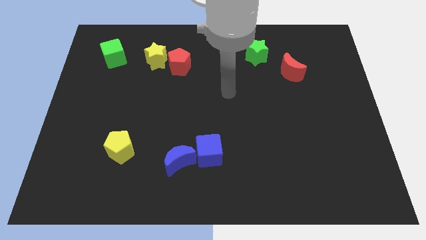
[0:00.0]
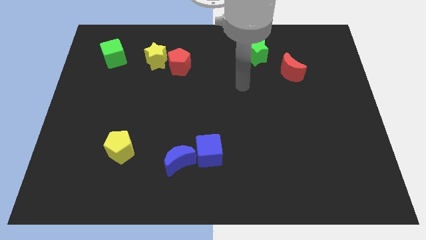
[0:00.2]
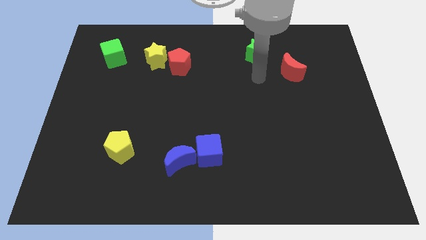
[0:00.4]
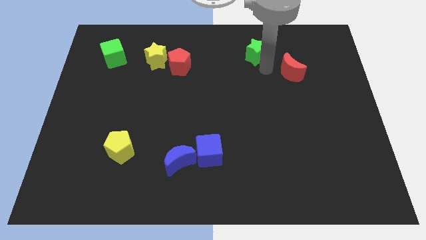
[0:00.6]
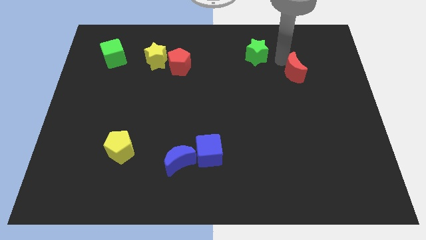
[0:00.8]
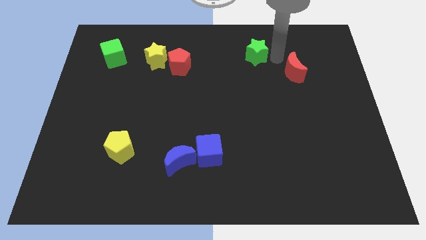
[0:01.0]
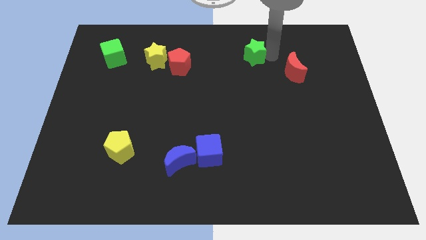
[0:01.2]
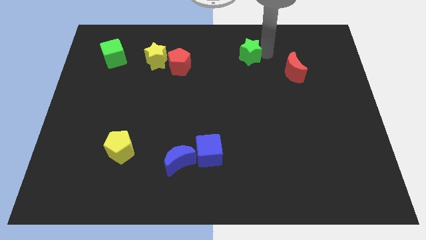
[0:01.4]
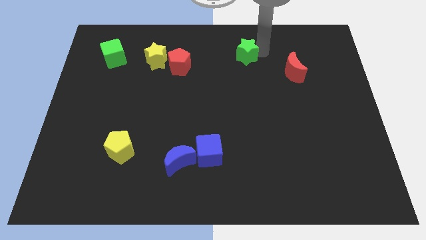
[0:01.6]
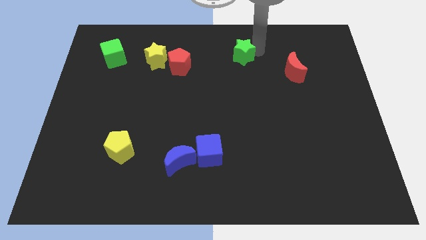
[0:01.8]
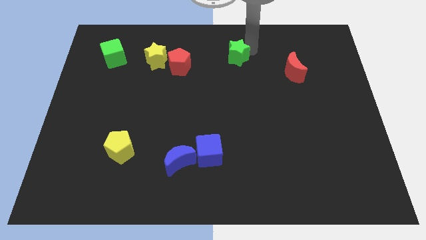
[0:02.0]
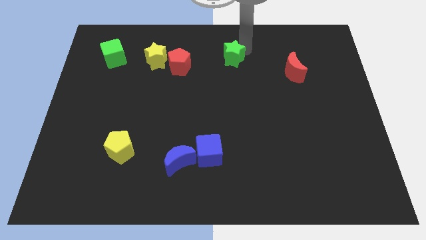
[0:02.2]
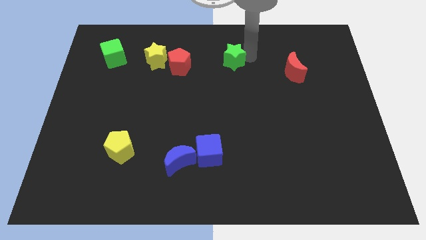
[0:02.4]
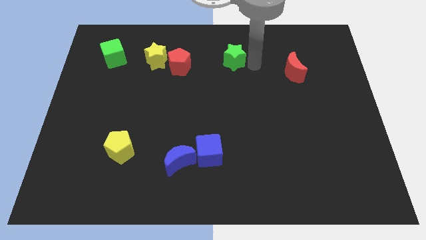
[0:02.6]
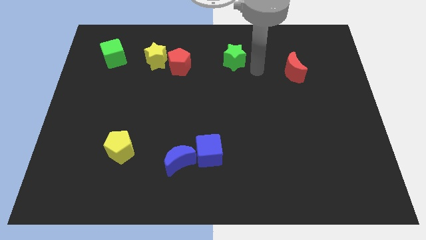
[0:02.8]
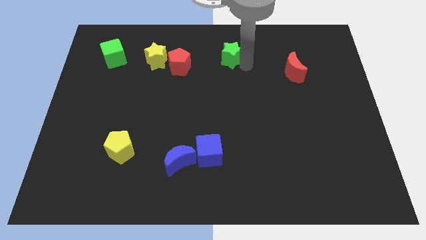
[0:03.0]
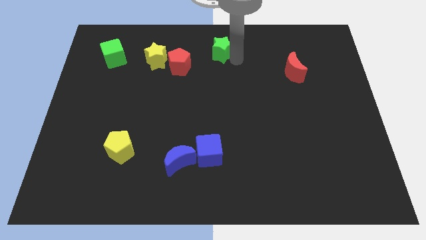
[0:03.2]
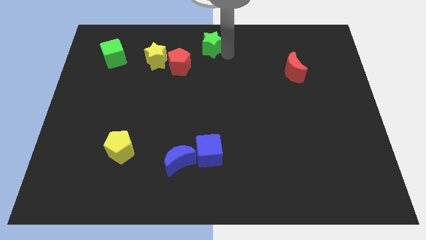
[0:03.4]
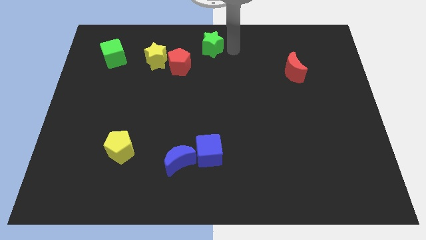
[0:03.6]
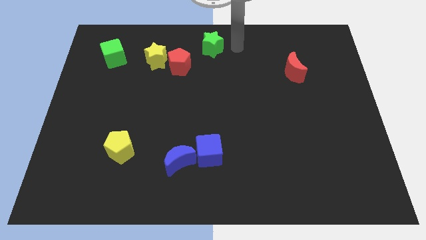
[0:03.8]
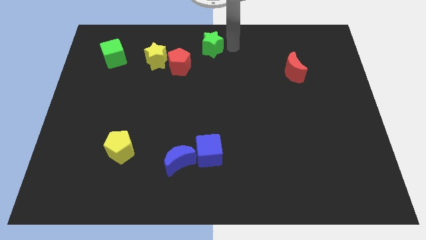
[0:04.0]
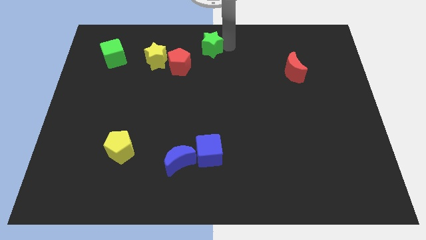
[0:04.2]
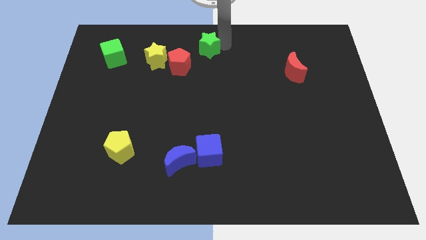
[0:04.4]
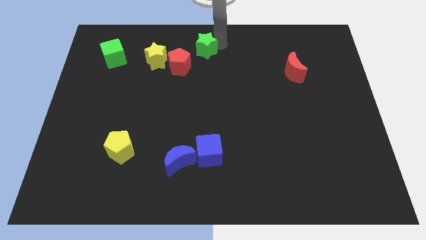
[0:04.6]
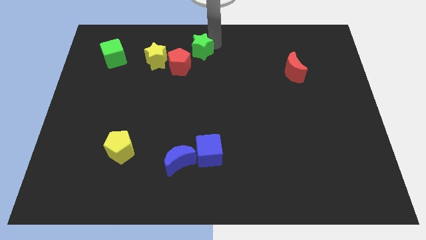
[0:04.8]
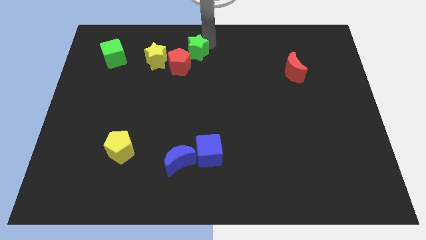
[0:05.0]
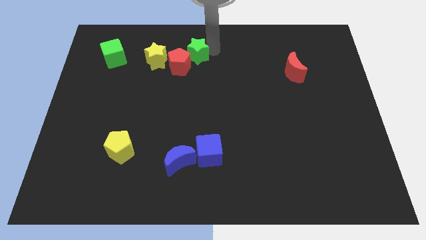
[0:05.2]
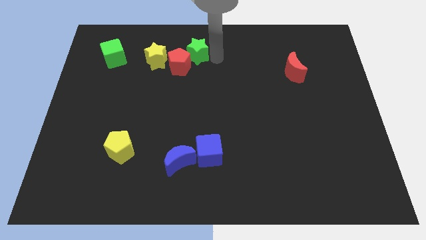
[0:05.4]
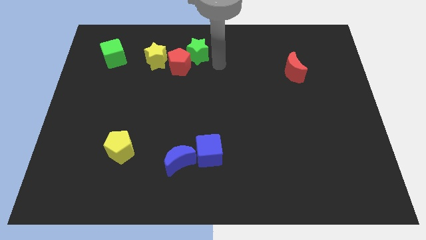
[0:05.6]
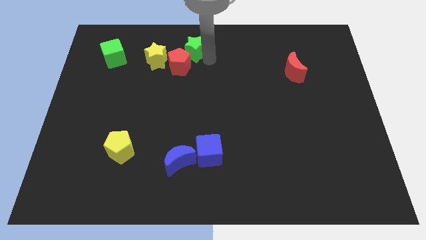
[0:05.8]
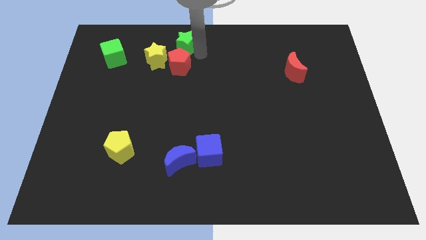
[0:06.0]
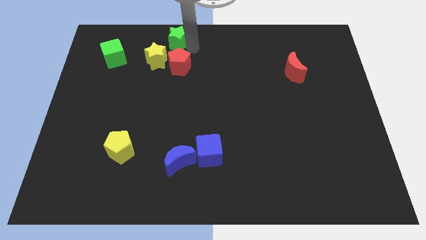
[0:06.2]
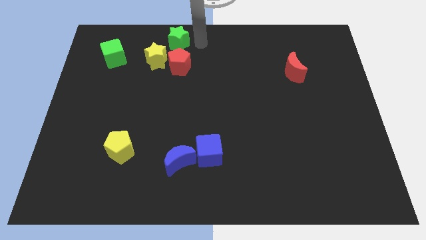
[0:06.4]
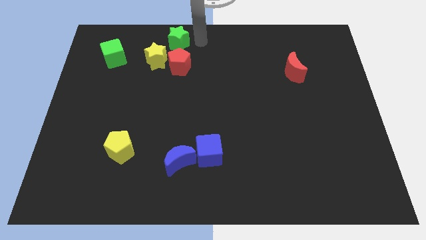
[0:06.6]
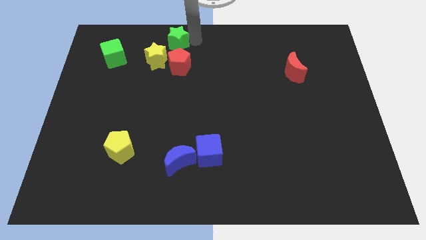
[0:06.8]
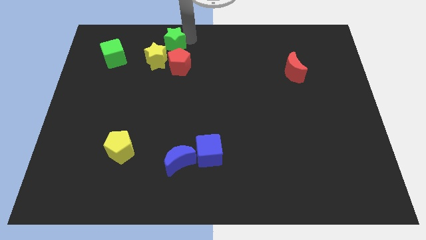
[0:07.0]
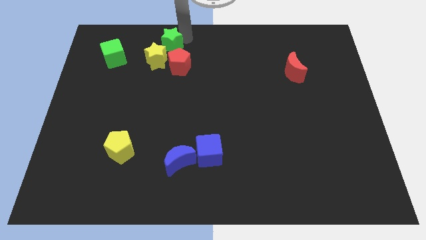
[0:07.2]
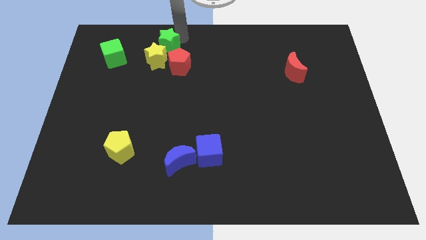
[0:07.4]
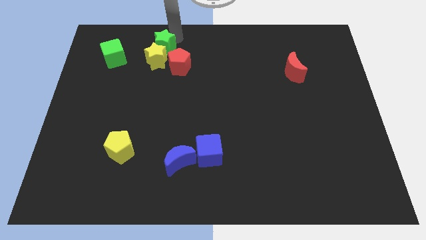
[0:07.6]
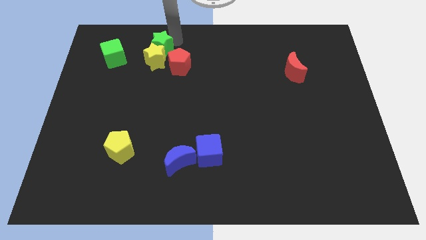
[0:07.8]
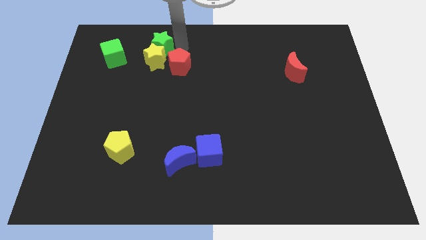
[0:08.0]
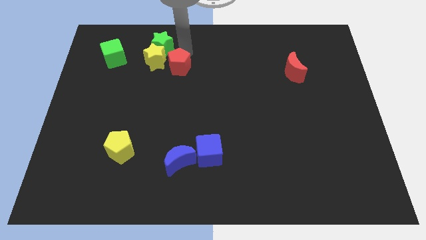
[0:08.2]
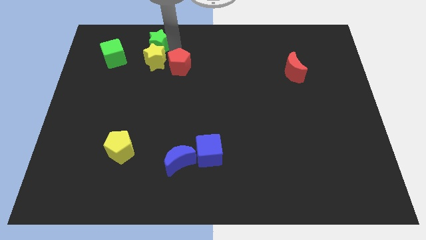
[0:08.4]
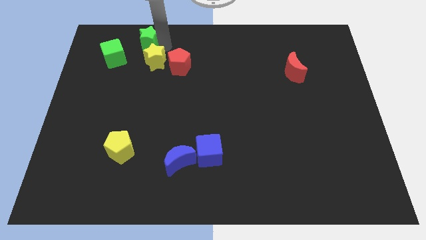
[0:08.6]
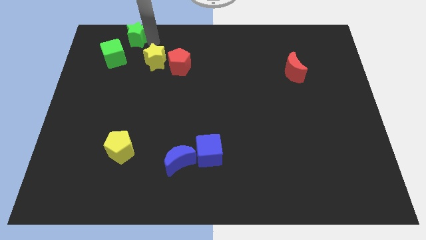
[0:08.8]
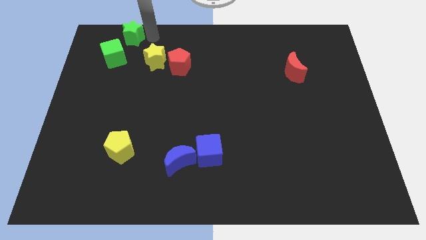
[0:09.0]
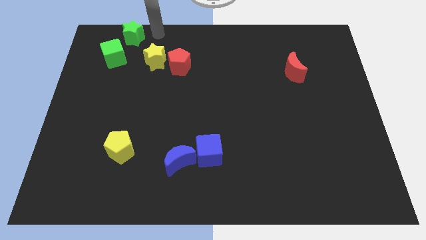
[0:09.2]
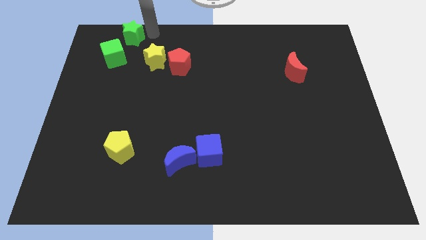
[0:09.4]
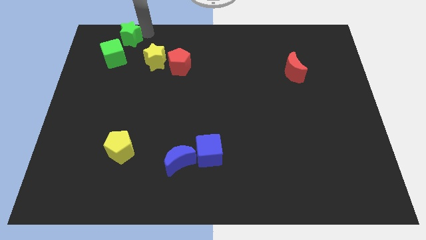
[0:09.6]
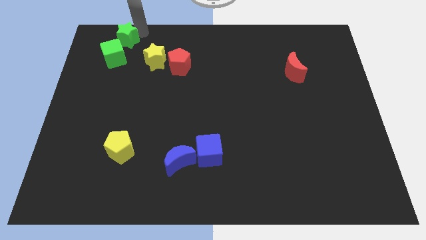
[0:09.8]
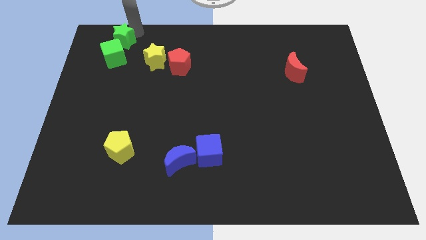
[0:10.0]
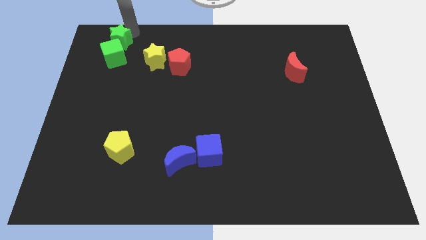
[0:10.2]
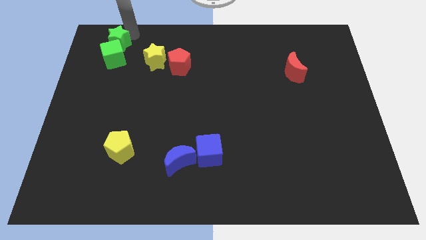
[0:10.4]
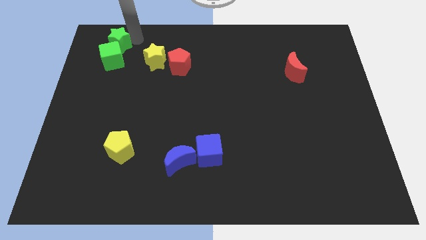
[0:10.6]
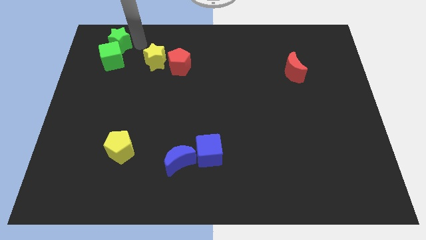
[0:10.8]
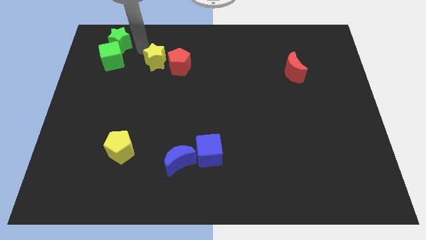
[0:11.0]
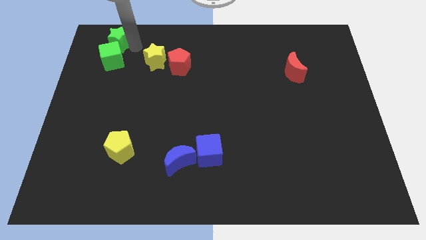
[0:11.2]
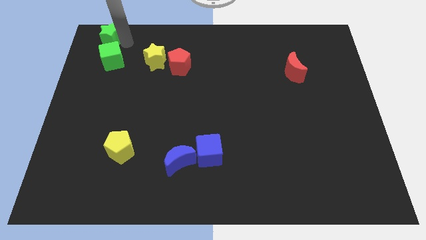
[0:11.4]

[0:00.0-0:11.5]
put the green star to the top left of the board
